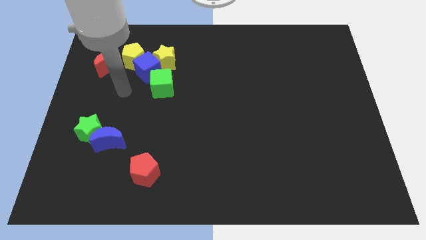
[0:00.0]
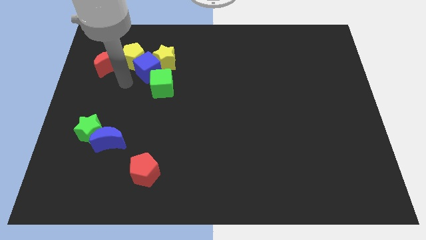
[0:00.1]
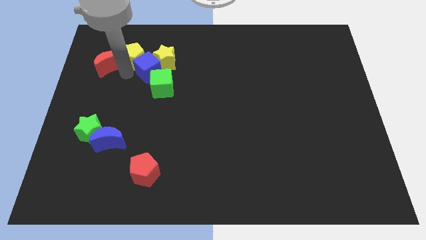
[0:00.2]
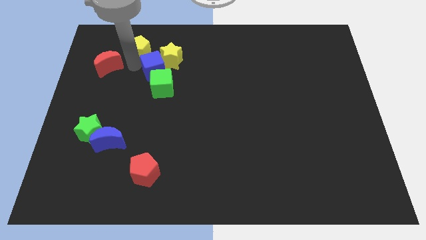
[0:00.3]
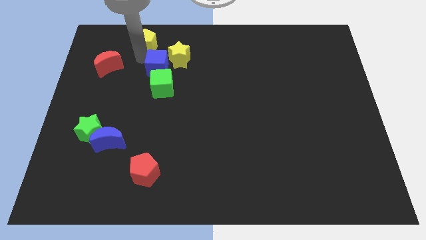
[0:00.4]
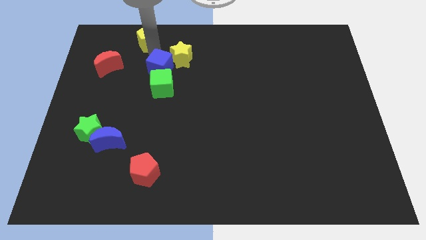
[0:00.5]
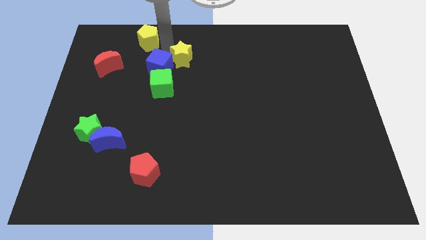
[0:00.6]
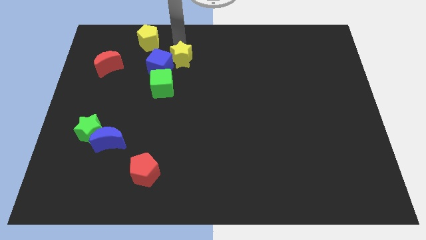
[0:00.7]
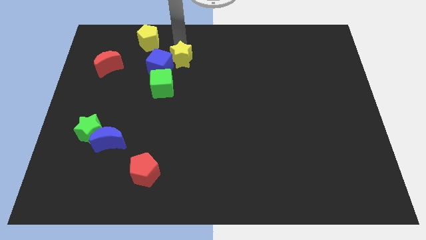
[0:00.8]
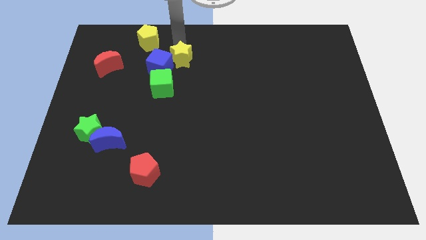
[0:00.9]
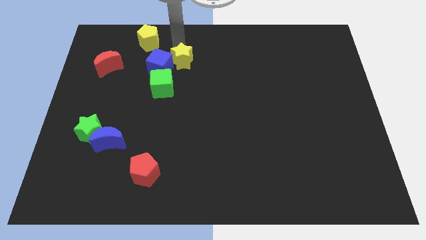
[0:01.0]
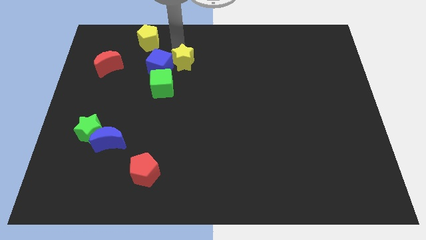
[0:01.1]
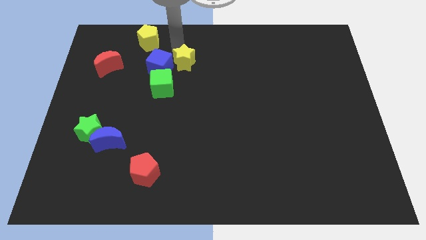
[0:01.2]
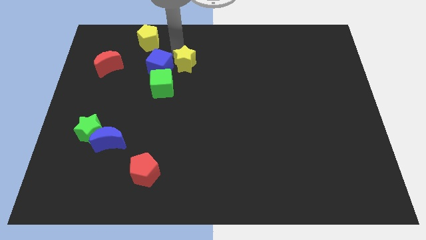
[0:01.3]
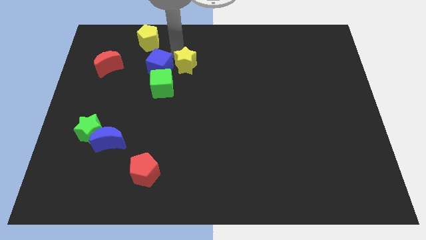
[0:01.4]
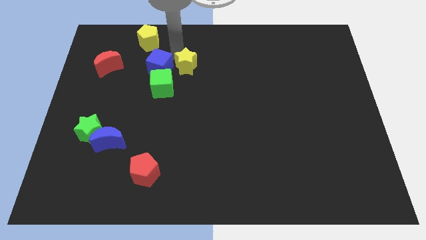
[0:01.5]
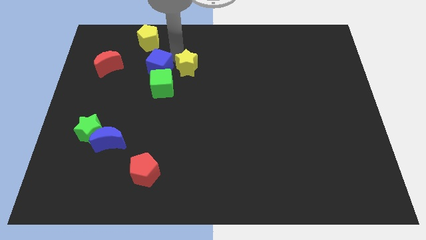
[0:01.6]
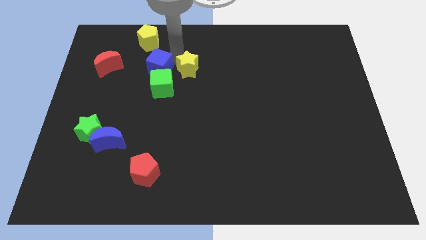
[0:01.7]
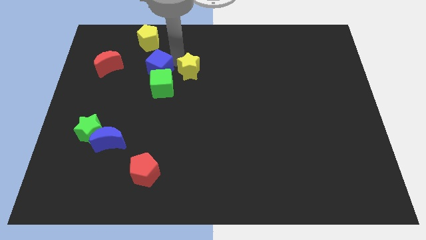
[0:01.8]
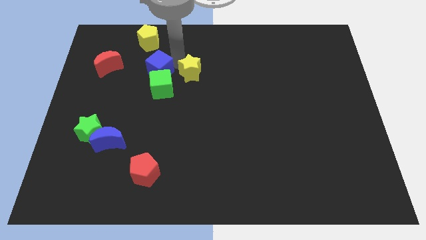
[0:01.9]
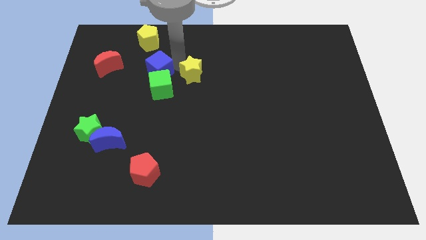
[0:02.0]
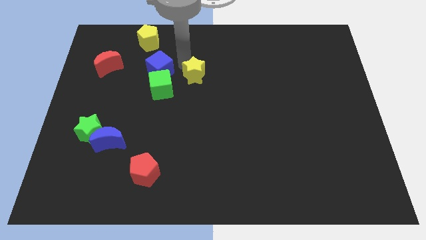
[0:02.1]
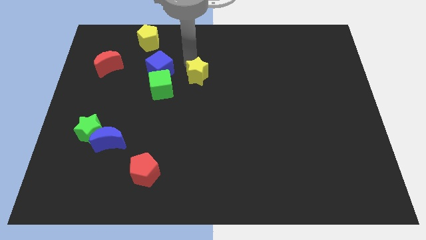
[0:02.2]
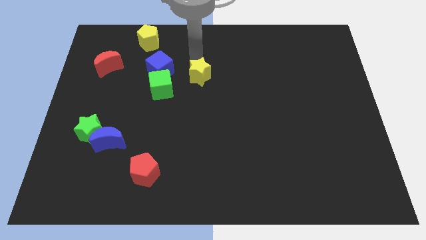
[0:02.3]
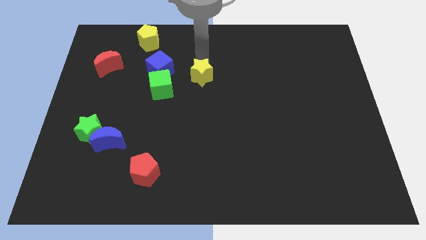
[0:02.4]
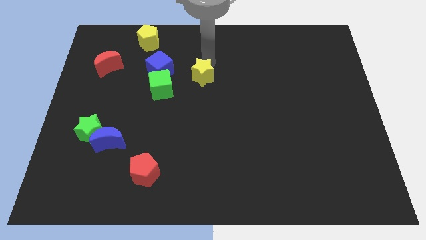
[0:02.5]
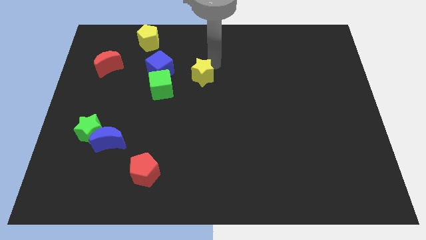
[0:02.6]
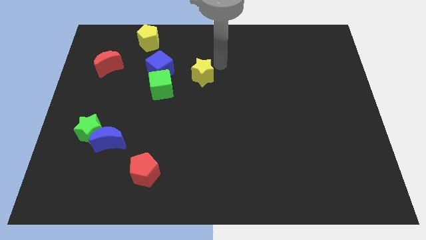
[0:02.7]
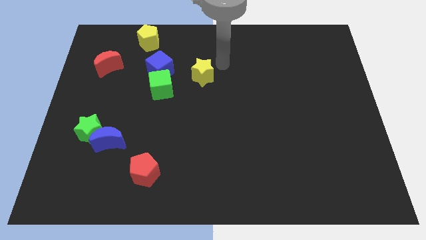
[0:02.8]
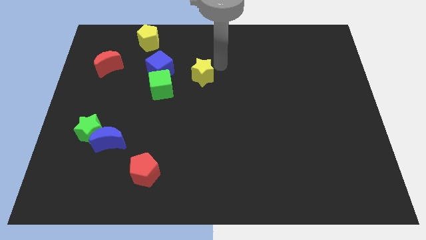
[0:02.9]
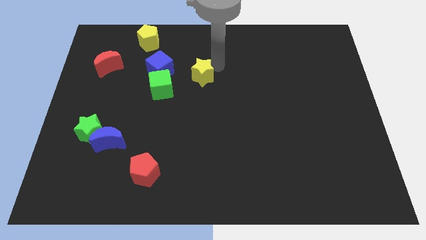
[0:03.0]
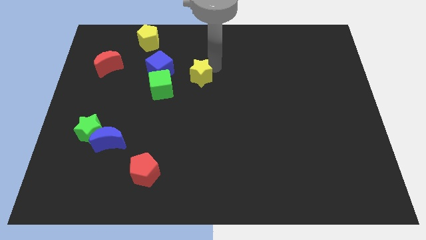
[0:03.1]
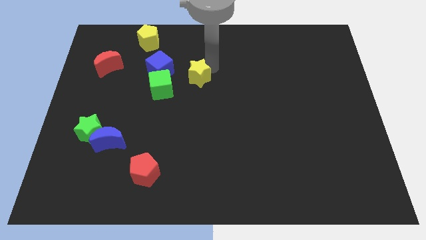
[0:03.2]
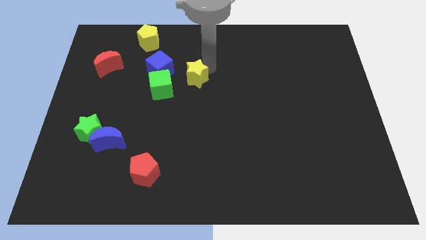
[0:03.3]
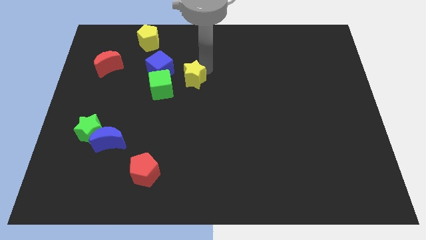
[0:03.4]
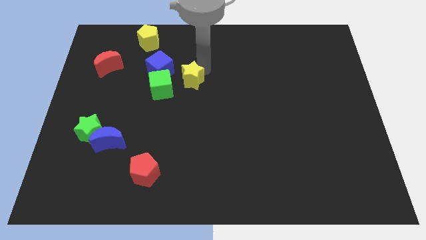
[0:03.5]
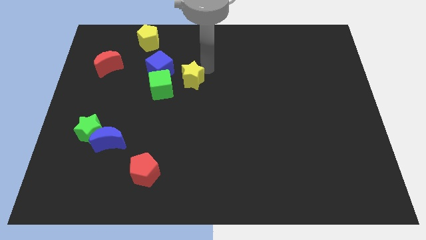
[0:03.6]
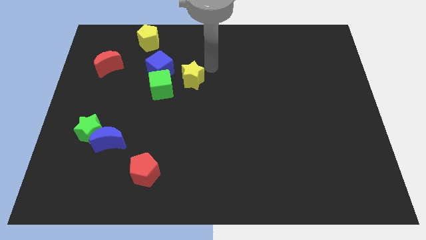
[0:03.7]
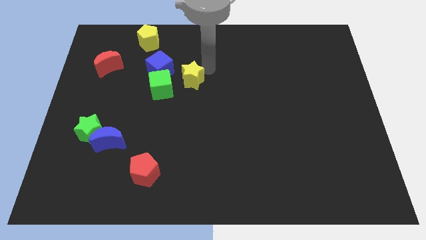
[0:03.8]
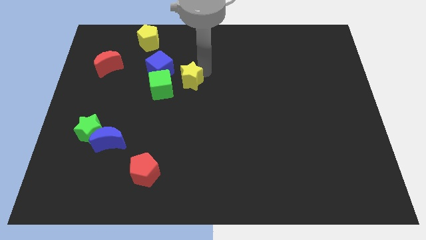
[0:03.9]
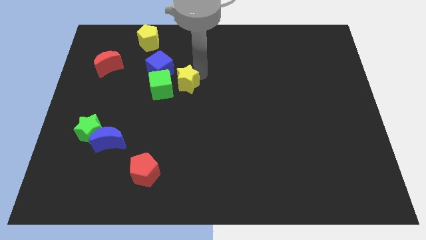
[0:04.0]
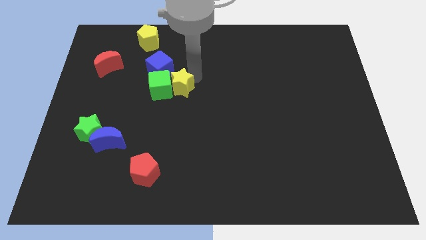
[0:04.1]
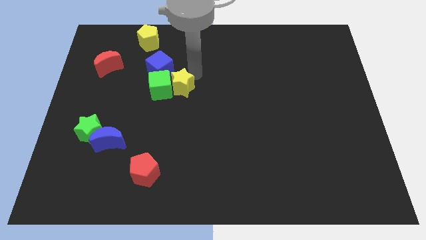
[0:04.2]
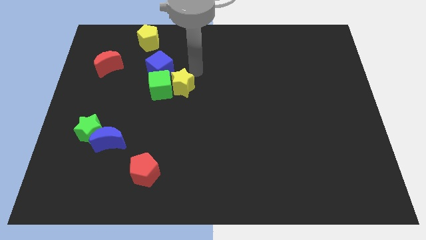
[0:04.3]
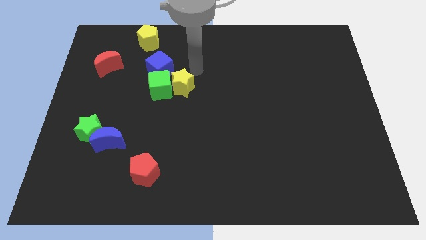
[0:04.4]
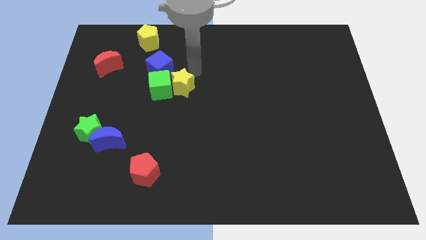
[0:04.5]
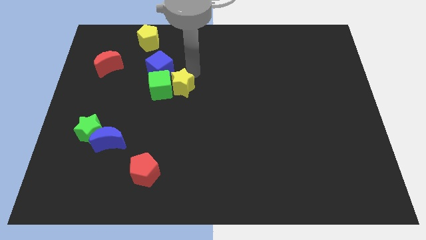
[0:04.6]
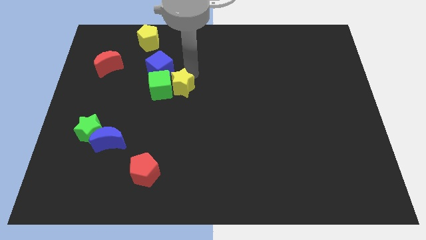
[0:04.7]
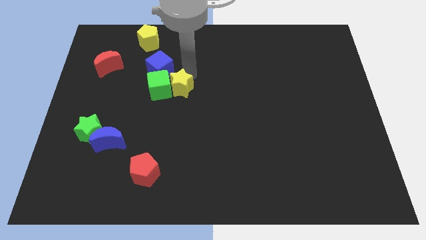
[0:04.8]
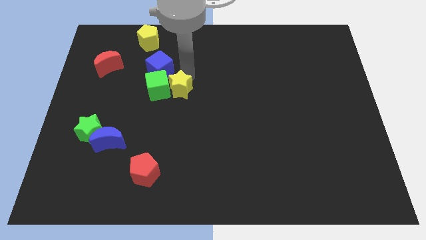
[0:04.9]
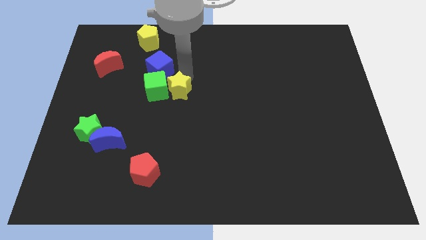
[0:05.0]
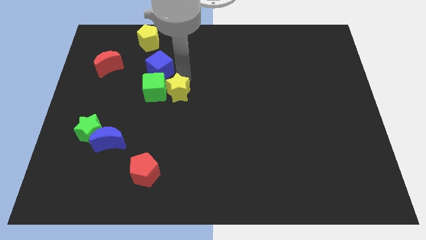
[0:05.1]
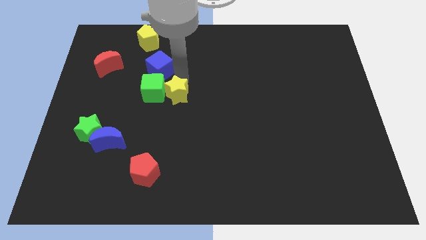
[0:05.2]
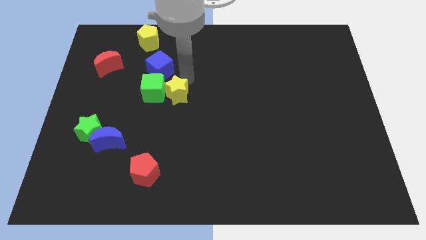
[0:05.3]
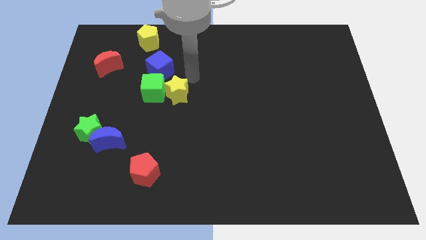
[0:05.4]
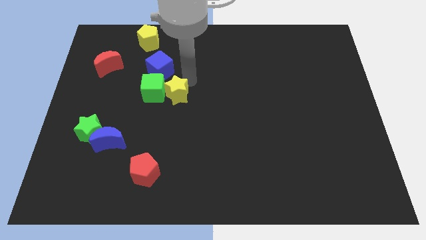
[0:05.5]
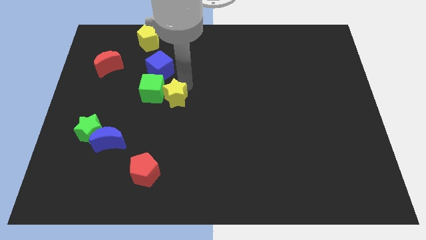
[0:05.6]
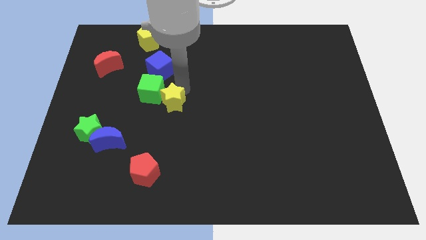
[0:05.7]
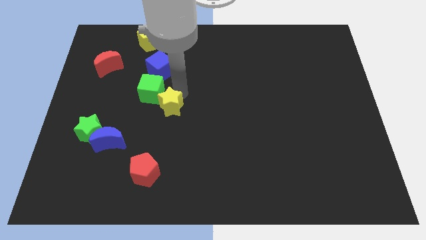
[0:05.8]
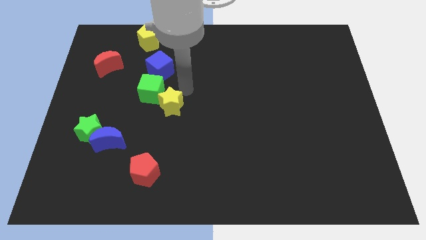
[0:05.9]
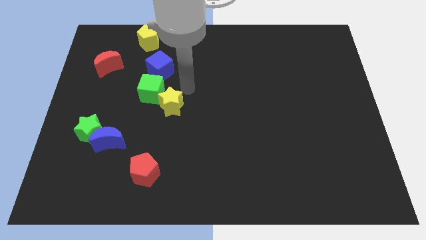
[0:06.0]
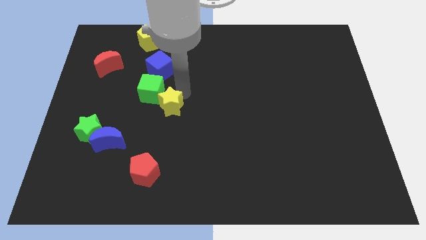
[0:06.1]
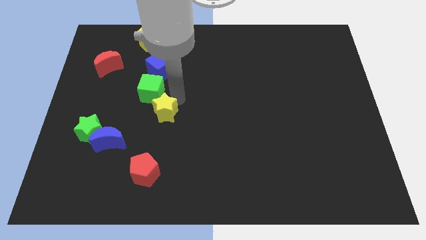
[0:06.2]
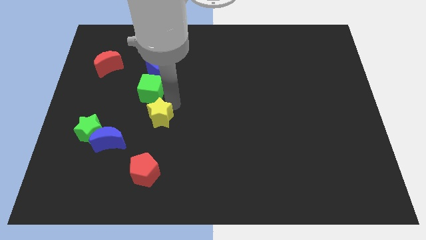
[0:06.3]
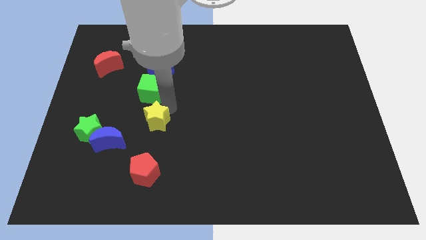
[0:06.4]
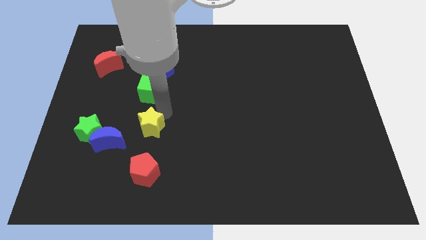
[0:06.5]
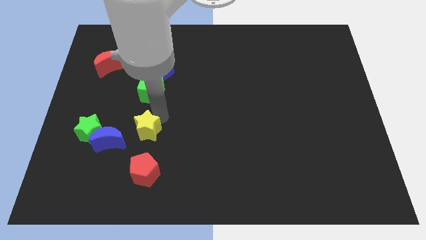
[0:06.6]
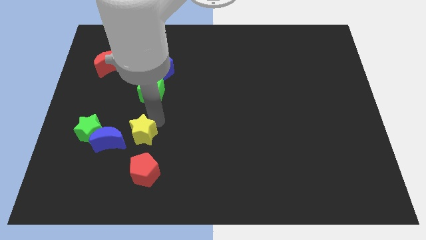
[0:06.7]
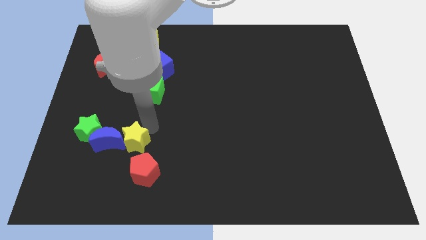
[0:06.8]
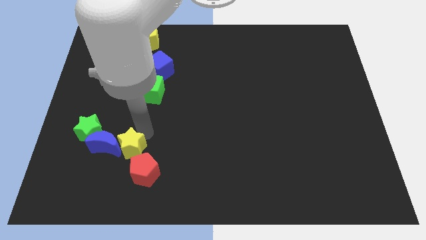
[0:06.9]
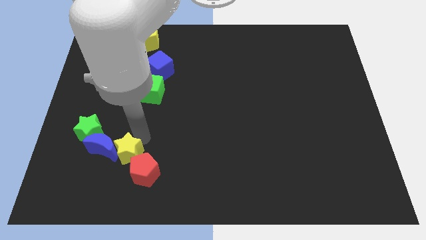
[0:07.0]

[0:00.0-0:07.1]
push the yellow star left of the red pentagon
